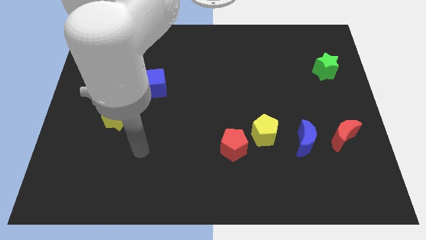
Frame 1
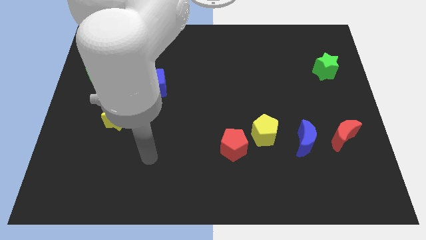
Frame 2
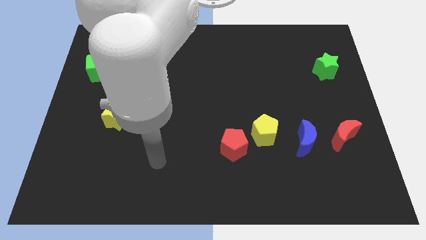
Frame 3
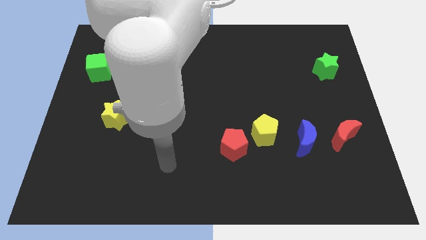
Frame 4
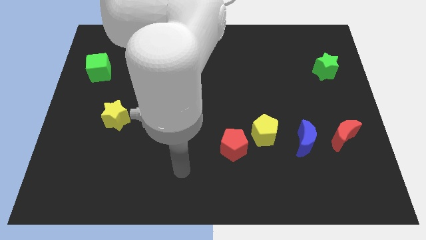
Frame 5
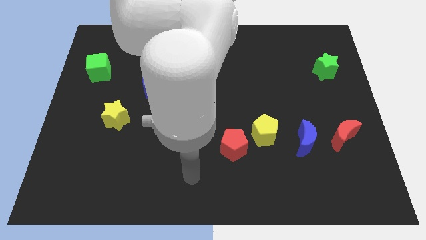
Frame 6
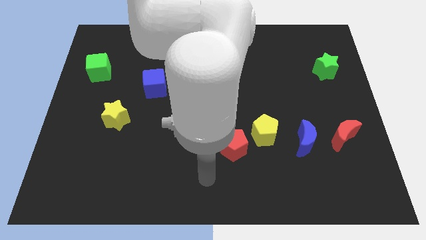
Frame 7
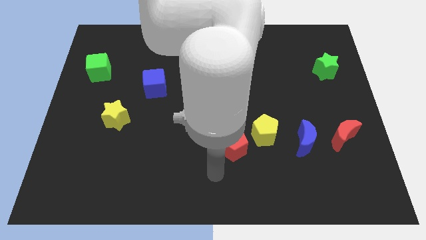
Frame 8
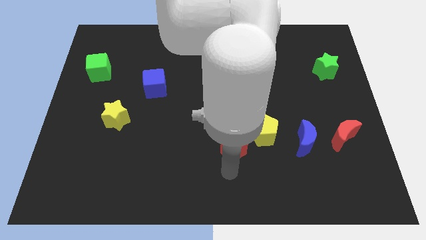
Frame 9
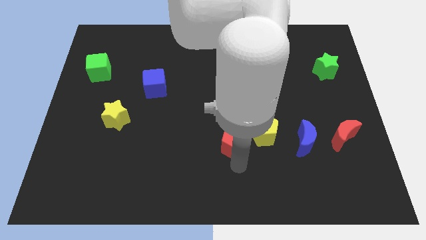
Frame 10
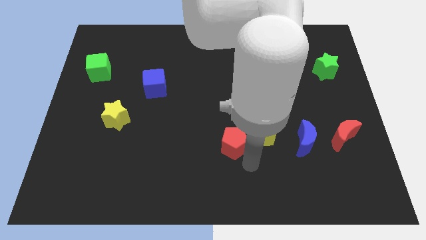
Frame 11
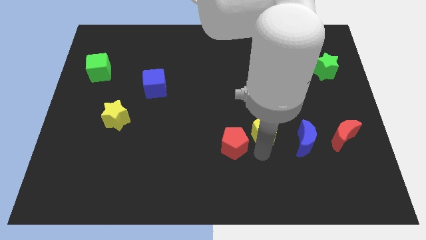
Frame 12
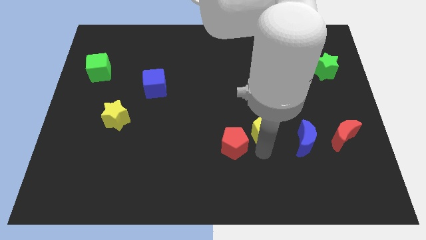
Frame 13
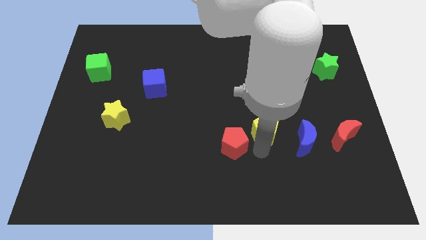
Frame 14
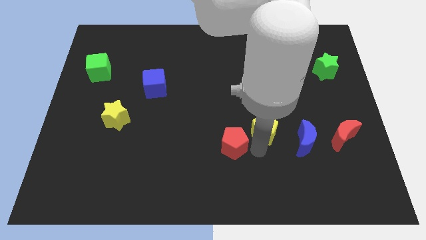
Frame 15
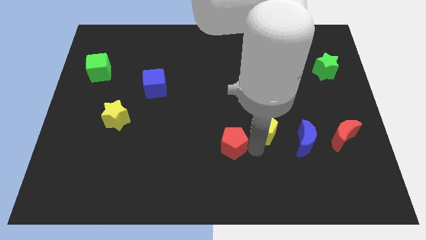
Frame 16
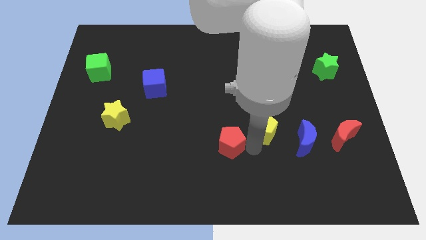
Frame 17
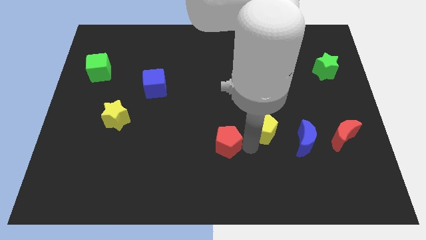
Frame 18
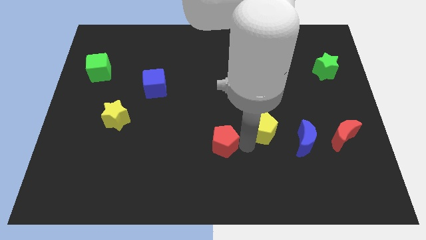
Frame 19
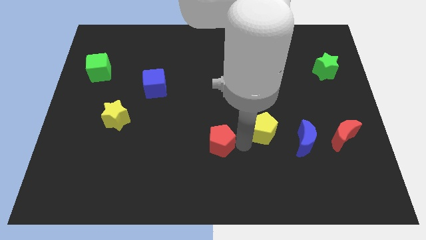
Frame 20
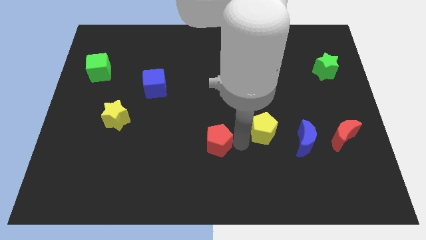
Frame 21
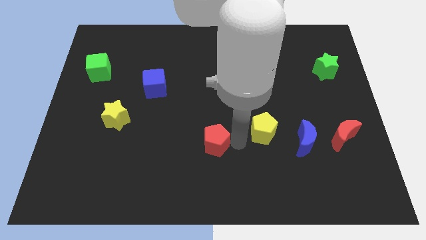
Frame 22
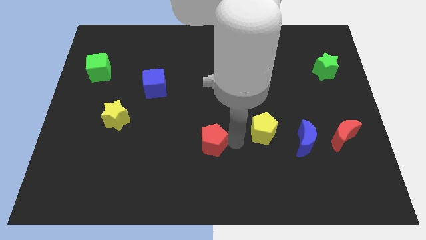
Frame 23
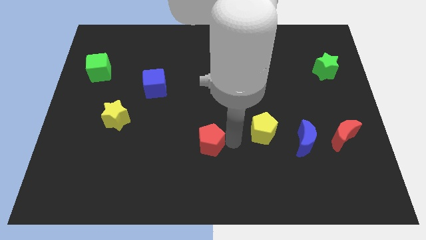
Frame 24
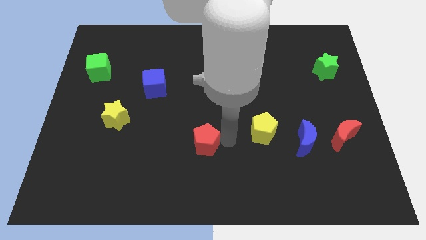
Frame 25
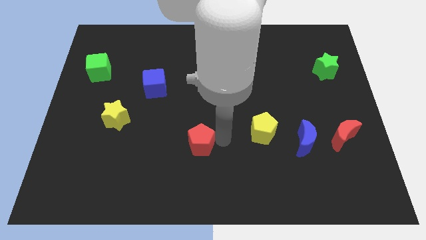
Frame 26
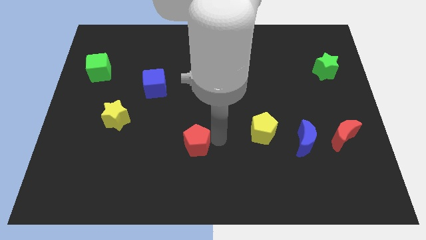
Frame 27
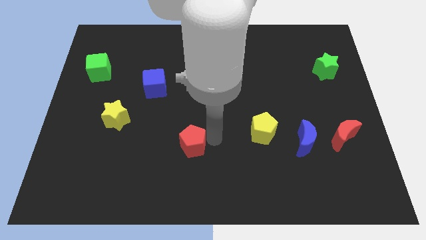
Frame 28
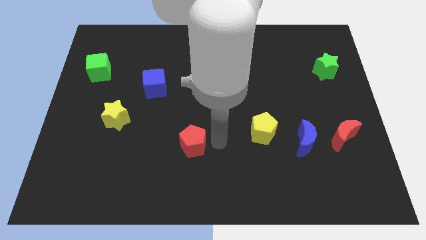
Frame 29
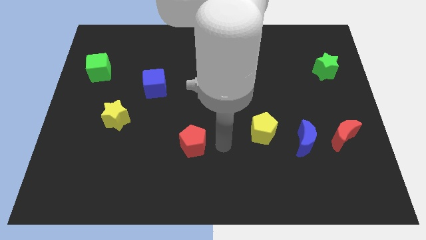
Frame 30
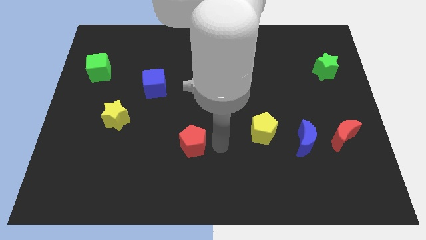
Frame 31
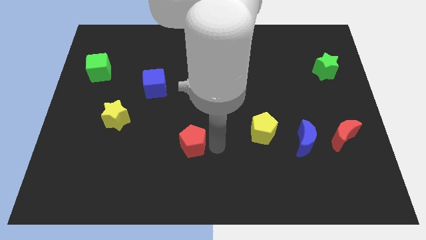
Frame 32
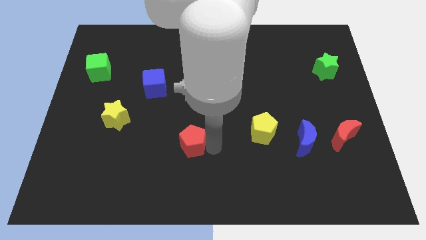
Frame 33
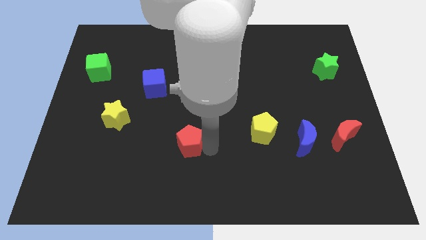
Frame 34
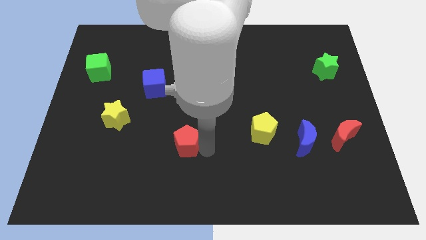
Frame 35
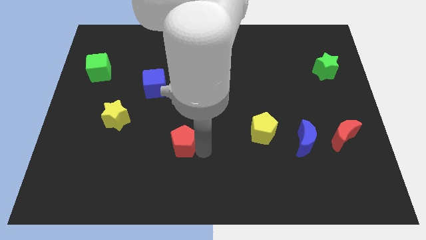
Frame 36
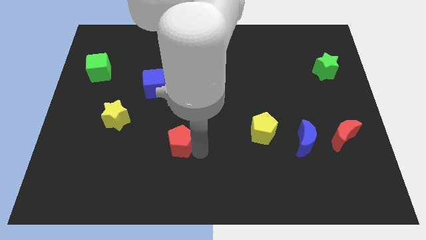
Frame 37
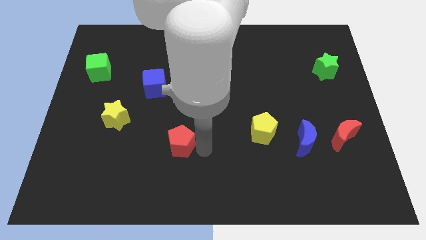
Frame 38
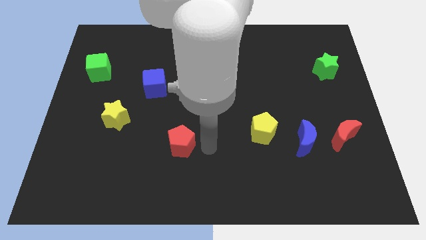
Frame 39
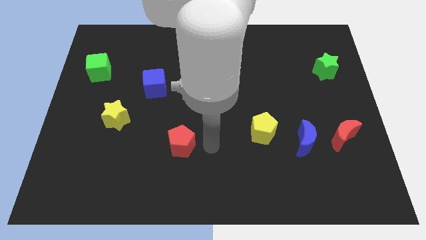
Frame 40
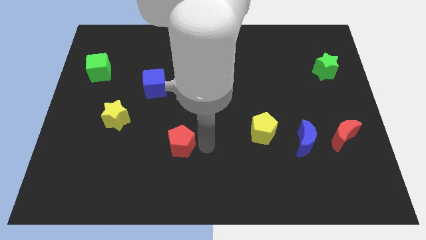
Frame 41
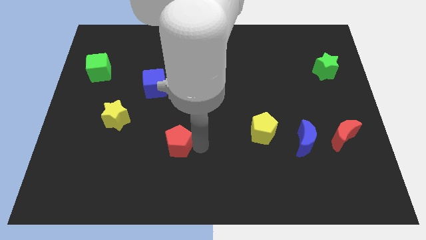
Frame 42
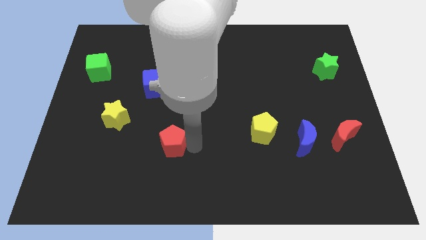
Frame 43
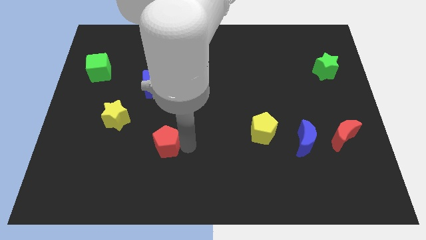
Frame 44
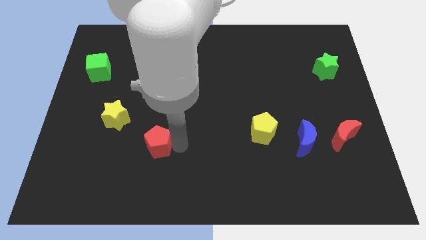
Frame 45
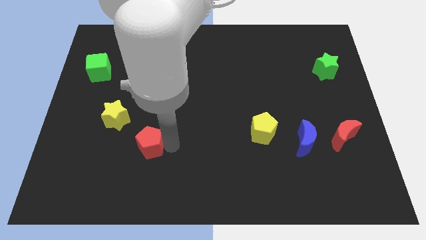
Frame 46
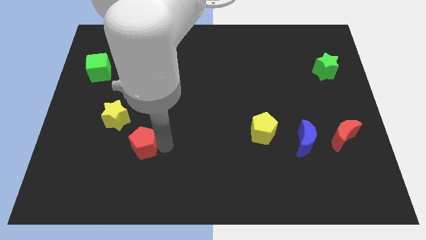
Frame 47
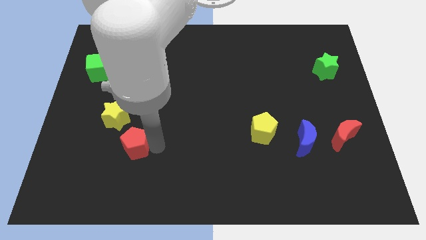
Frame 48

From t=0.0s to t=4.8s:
move the red pentagon to the left

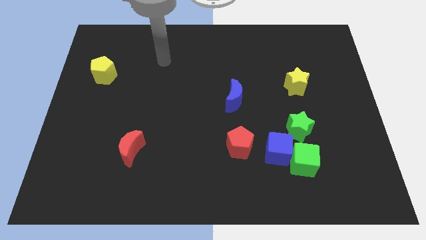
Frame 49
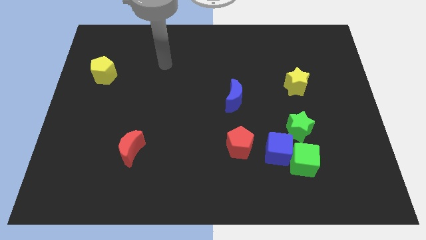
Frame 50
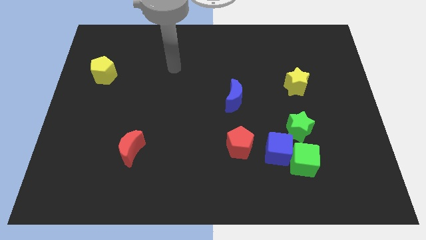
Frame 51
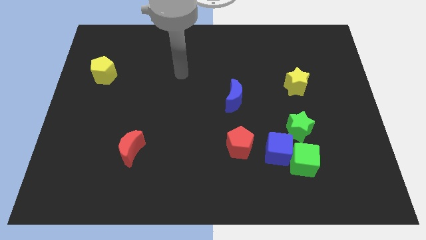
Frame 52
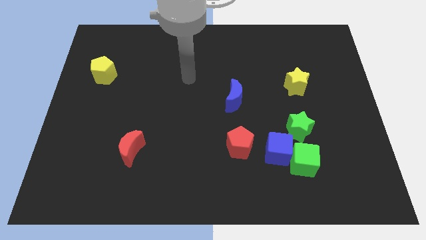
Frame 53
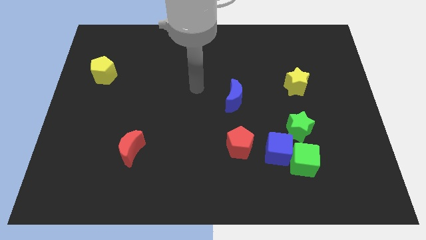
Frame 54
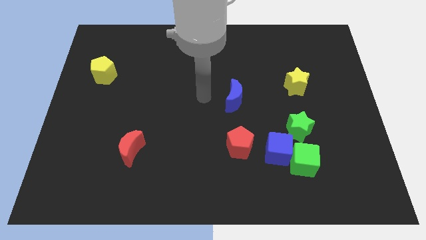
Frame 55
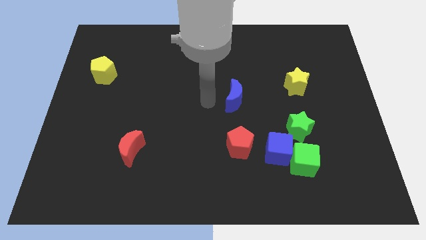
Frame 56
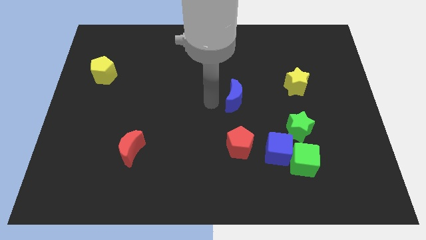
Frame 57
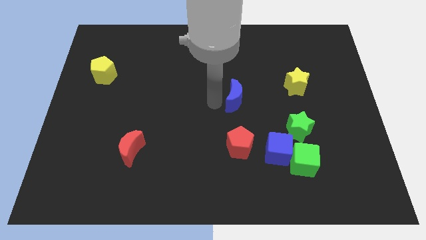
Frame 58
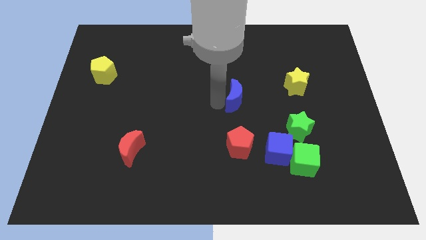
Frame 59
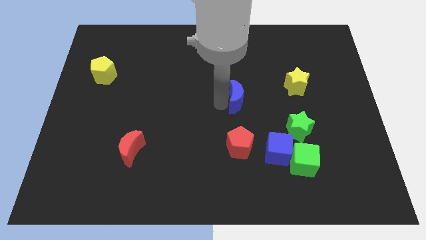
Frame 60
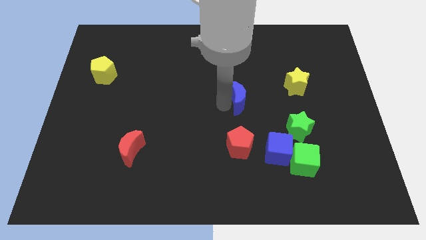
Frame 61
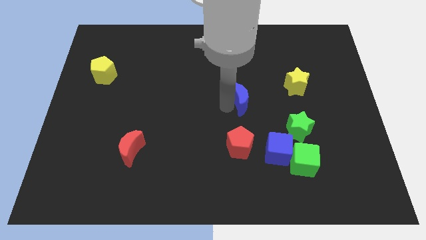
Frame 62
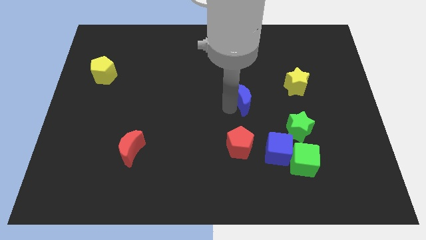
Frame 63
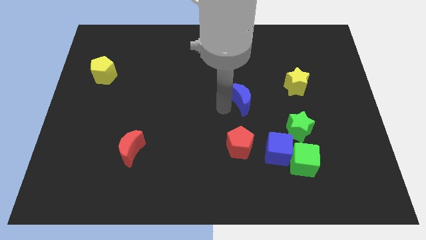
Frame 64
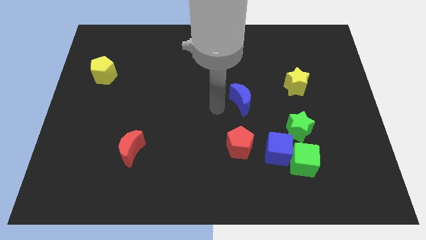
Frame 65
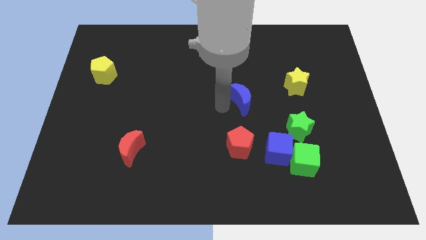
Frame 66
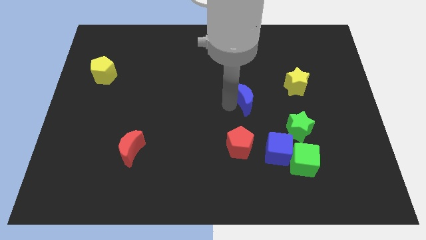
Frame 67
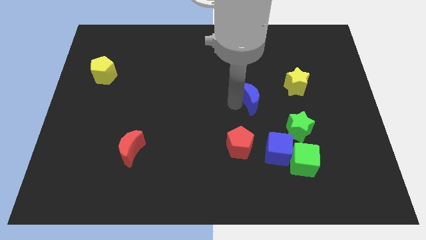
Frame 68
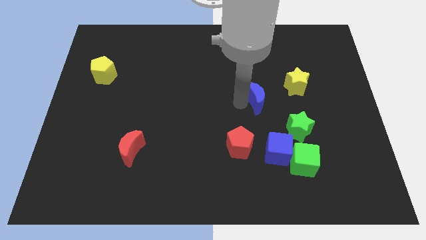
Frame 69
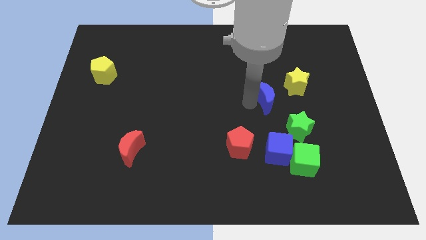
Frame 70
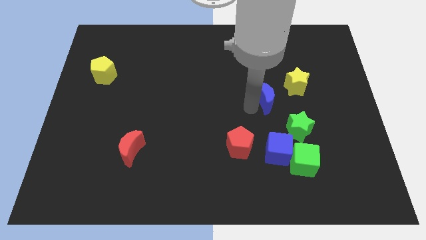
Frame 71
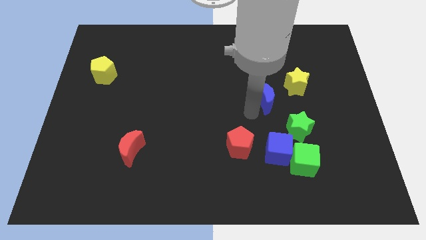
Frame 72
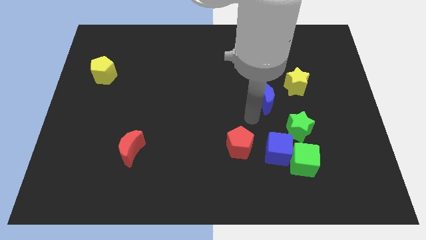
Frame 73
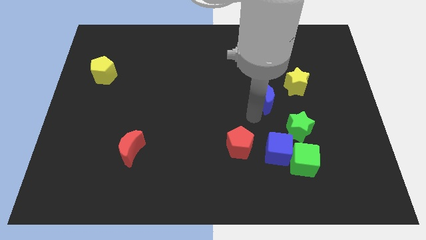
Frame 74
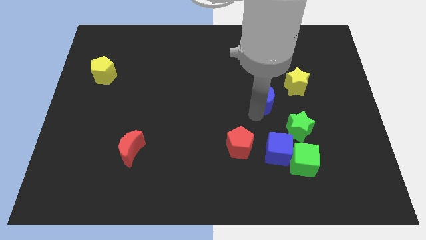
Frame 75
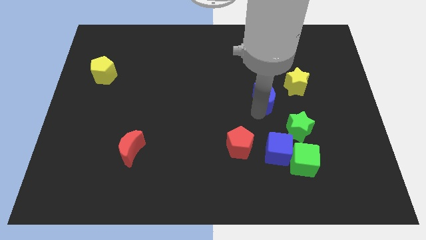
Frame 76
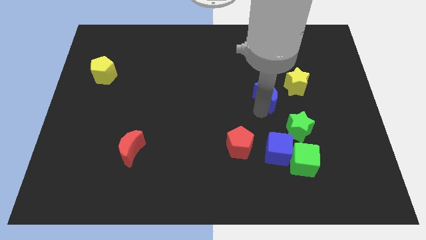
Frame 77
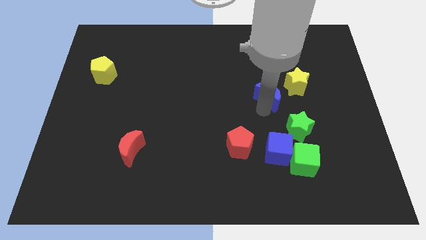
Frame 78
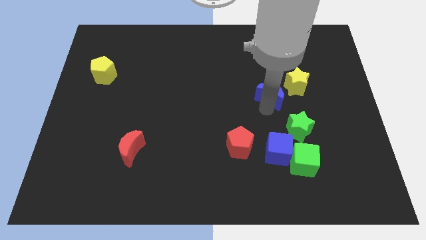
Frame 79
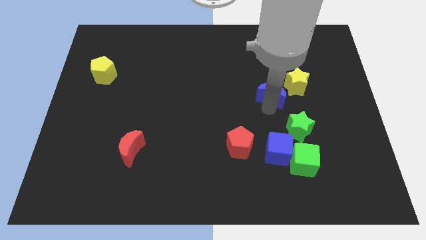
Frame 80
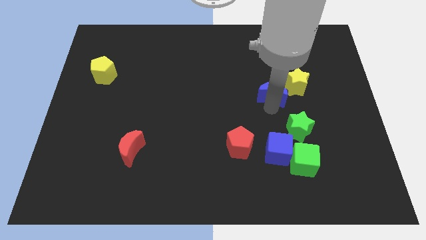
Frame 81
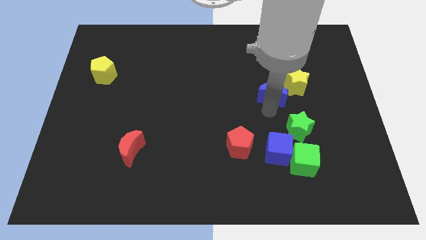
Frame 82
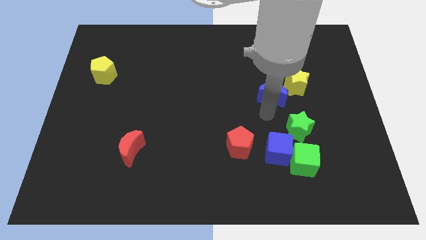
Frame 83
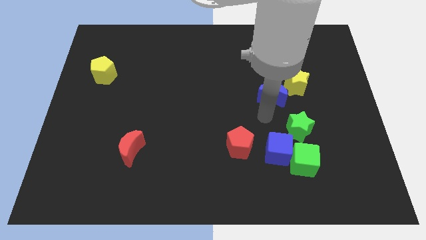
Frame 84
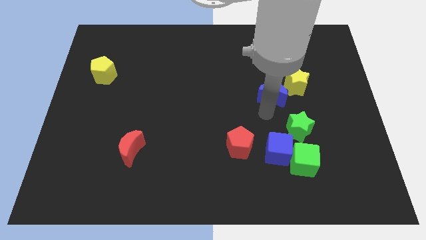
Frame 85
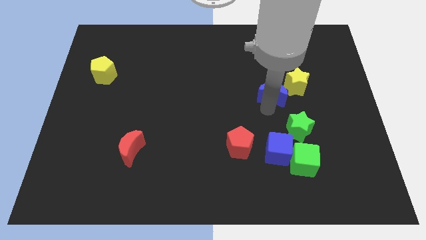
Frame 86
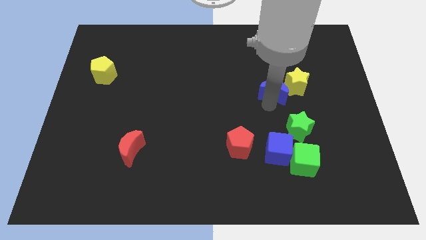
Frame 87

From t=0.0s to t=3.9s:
move the blue moon a little up and to the right
